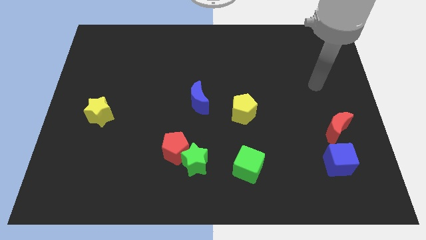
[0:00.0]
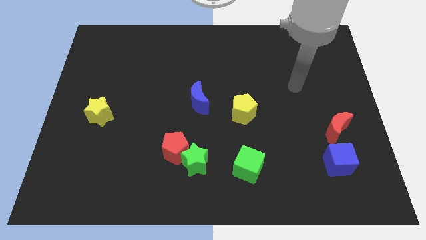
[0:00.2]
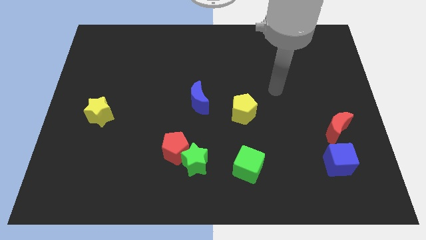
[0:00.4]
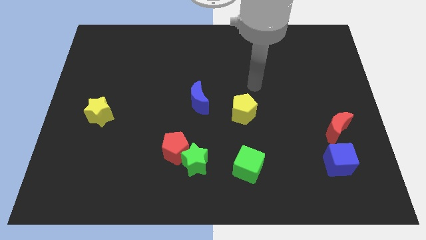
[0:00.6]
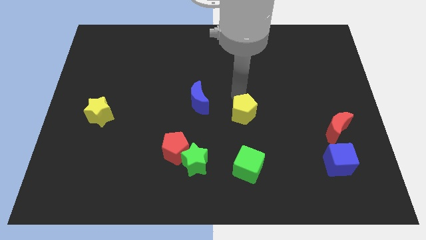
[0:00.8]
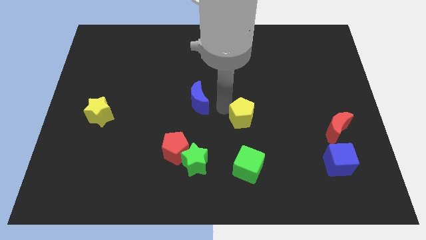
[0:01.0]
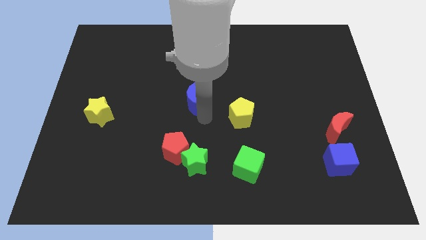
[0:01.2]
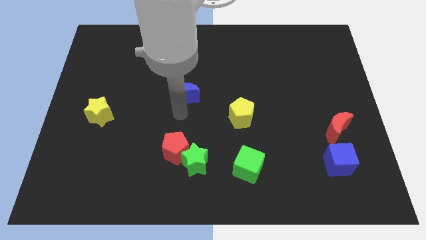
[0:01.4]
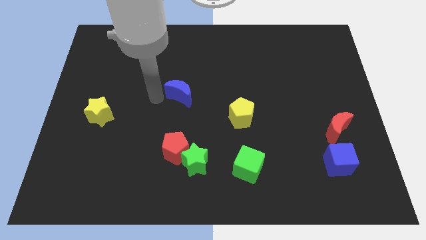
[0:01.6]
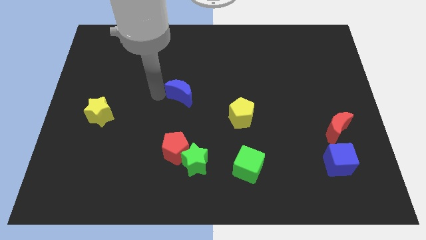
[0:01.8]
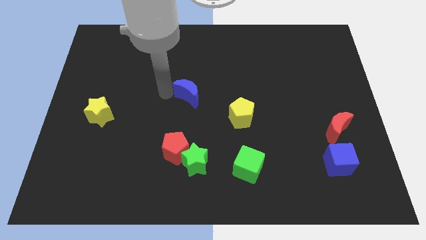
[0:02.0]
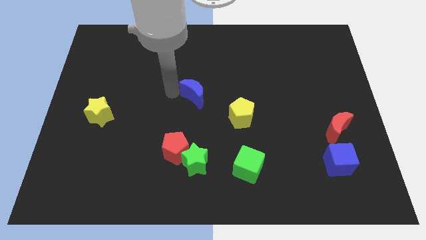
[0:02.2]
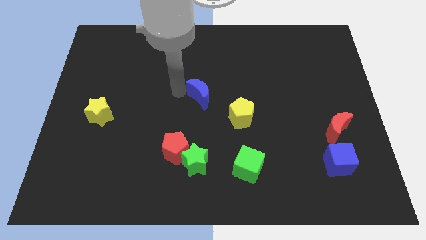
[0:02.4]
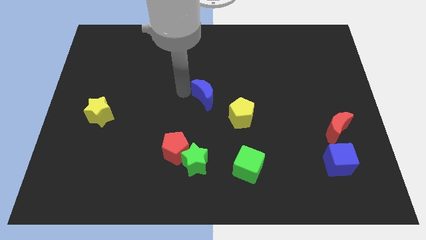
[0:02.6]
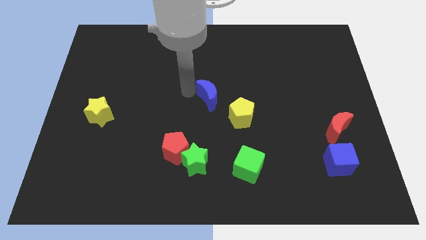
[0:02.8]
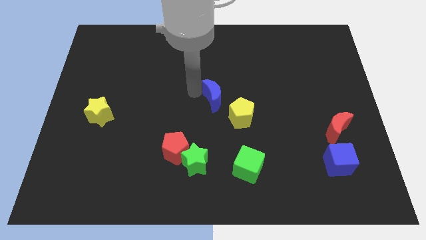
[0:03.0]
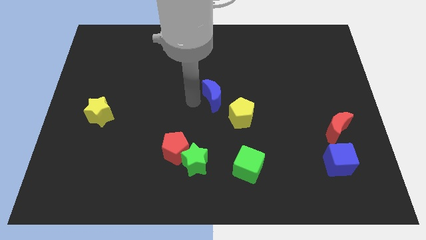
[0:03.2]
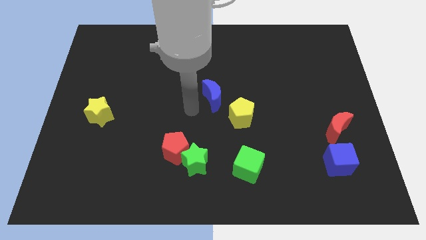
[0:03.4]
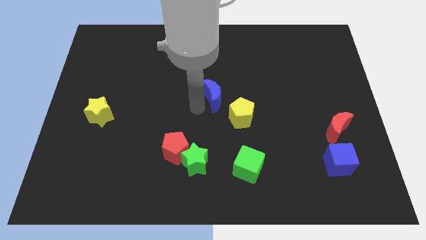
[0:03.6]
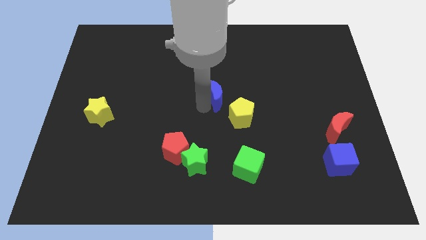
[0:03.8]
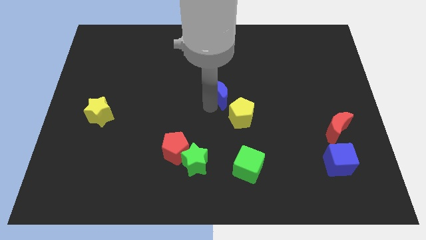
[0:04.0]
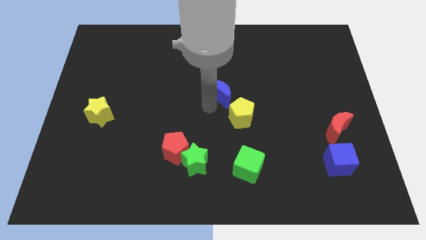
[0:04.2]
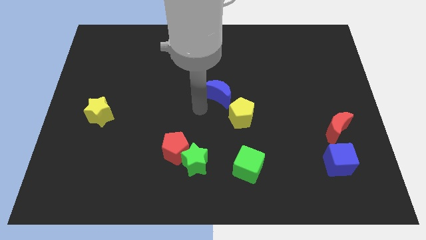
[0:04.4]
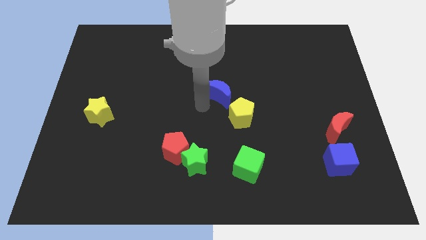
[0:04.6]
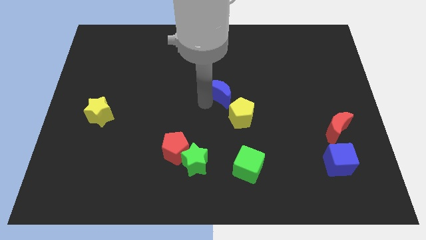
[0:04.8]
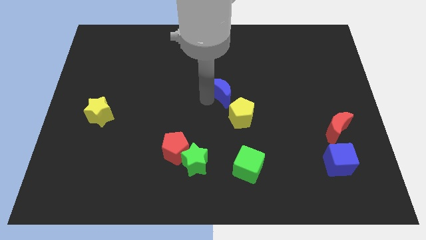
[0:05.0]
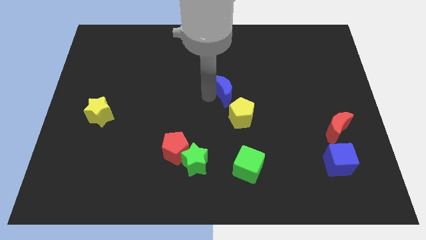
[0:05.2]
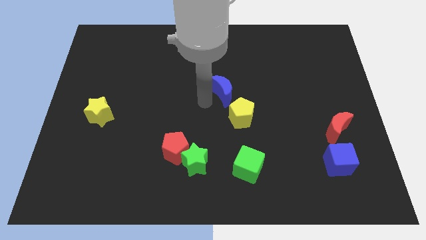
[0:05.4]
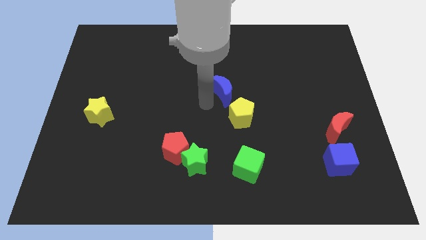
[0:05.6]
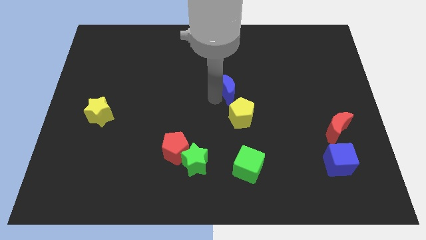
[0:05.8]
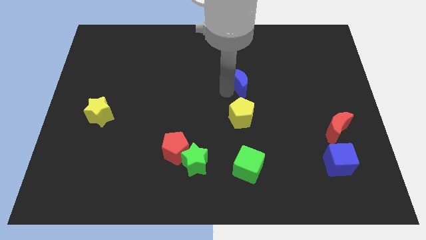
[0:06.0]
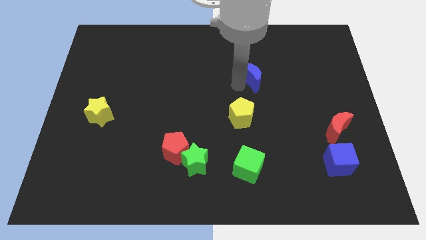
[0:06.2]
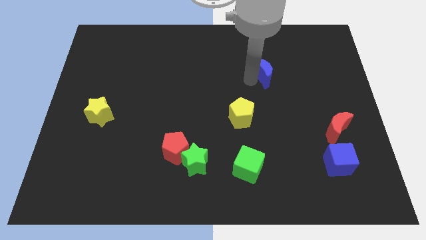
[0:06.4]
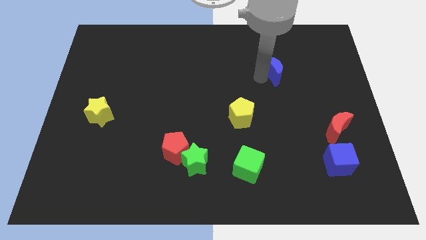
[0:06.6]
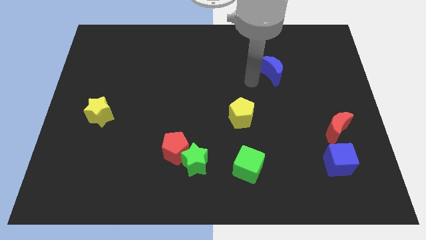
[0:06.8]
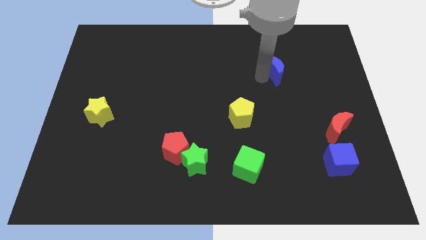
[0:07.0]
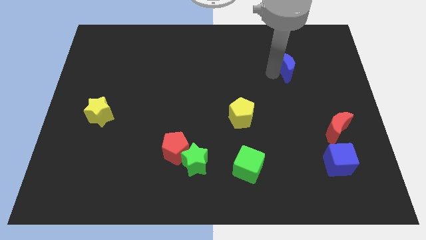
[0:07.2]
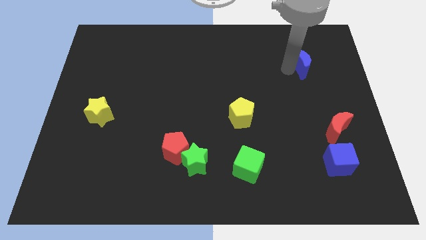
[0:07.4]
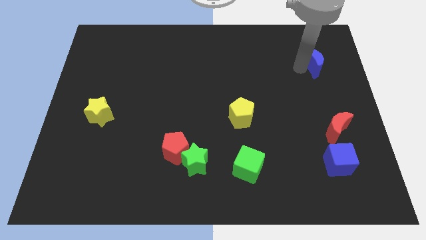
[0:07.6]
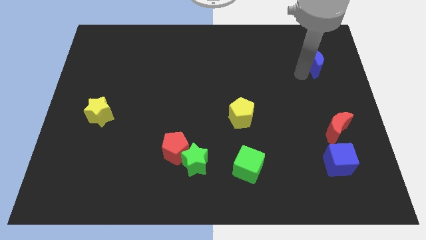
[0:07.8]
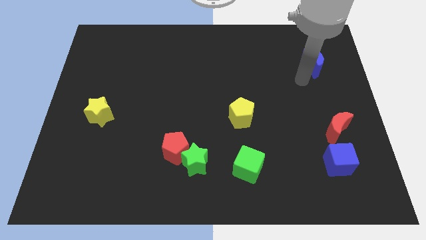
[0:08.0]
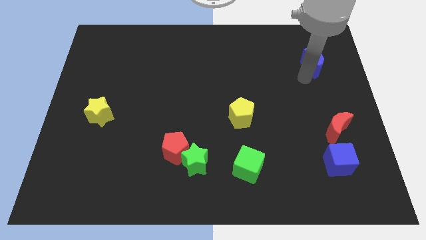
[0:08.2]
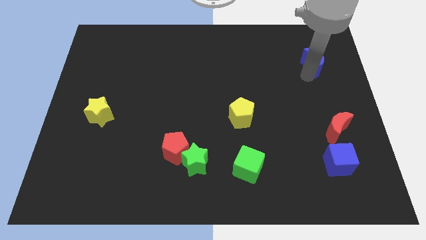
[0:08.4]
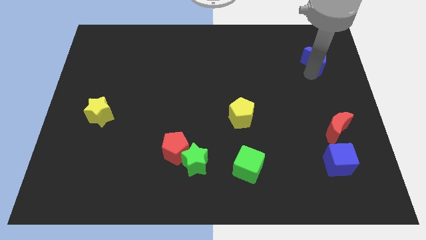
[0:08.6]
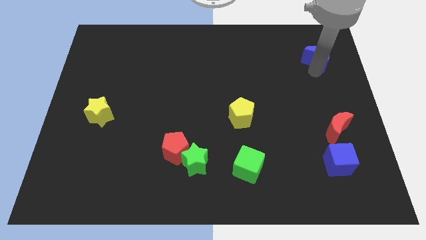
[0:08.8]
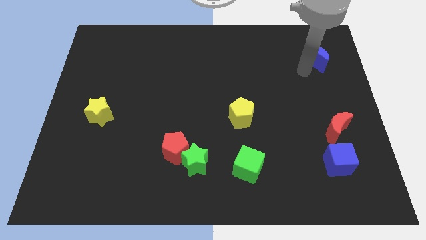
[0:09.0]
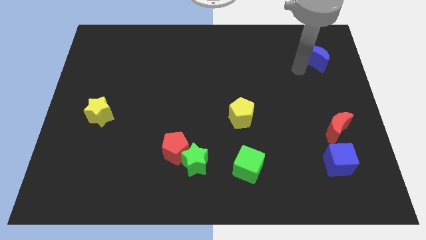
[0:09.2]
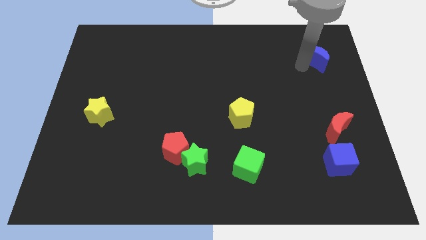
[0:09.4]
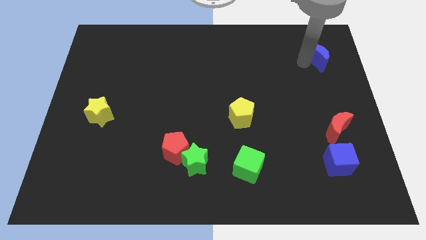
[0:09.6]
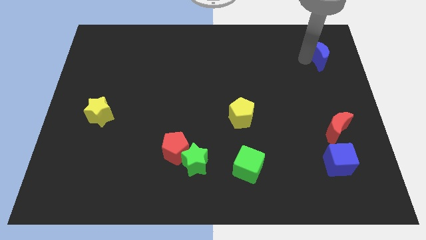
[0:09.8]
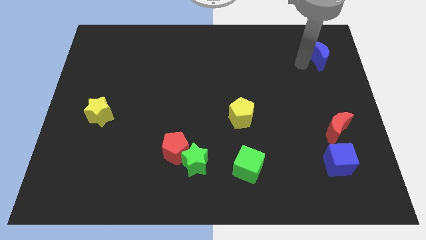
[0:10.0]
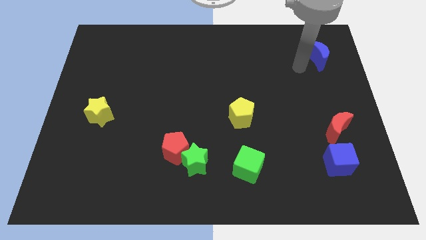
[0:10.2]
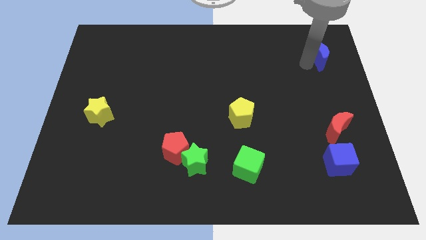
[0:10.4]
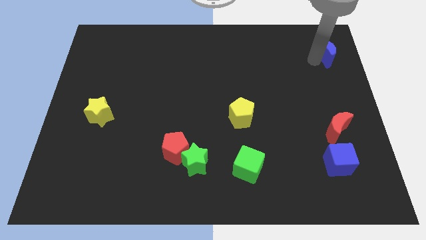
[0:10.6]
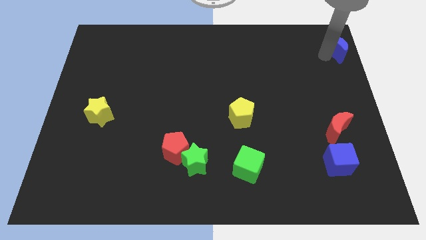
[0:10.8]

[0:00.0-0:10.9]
move the blue moon to the top right of the board

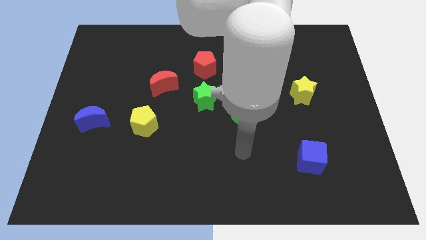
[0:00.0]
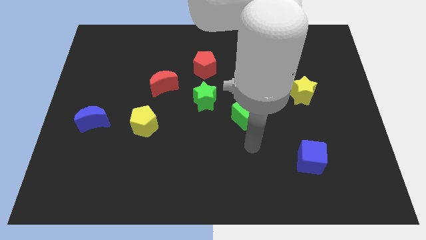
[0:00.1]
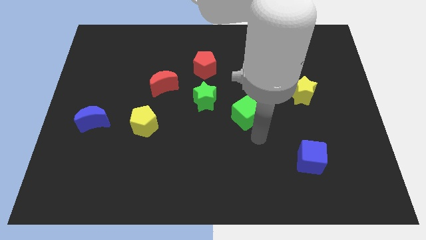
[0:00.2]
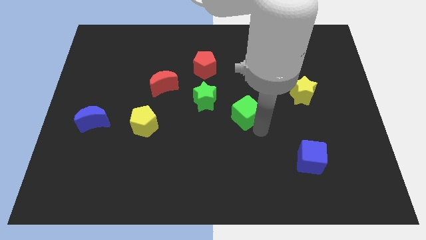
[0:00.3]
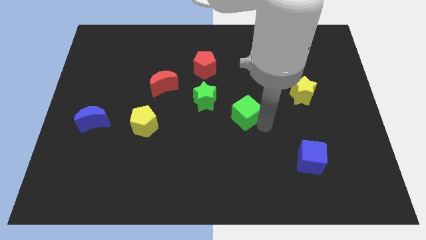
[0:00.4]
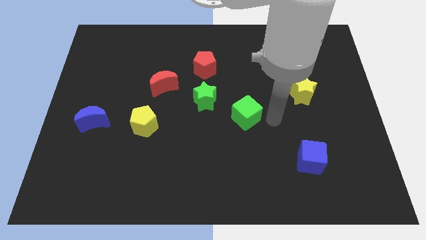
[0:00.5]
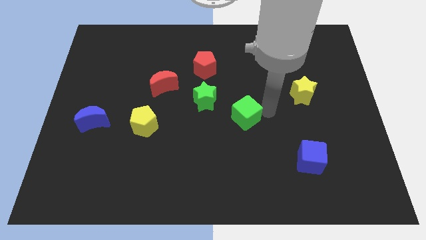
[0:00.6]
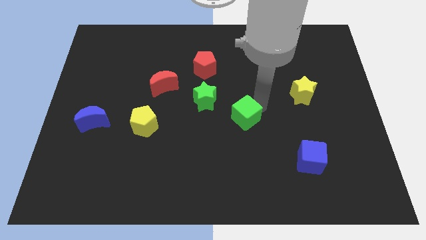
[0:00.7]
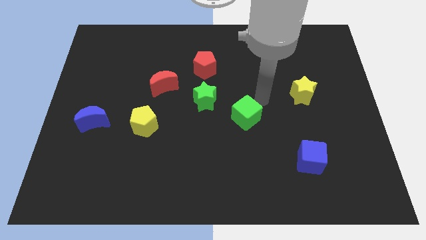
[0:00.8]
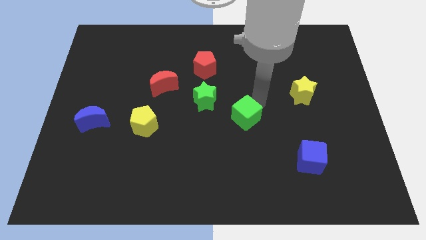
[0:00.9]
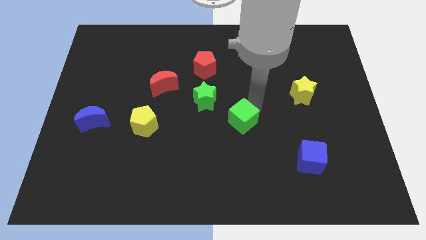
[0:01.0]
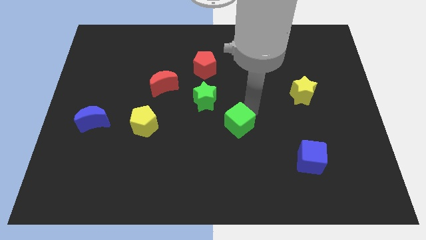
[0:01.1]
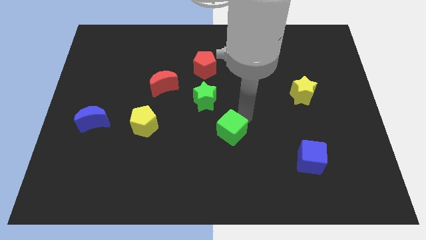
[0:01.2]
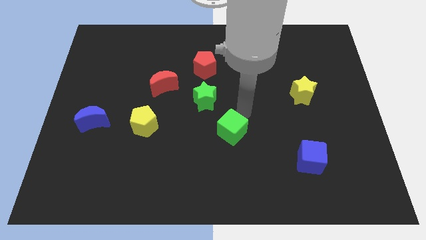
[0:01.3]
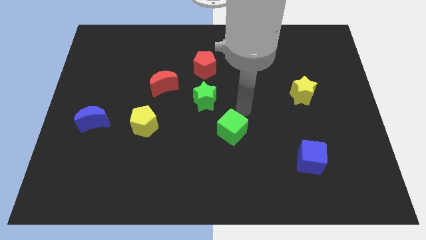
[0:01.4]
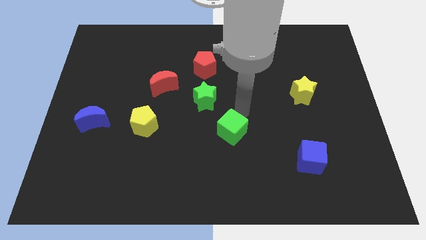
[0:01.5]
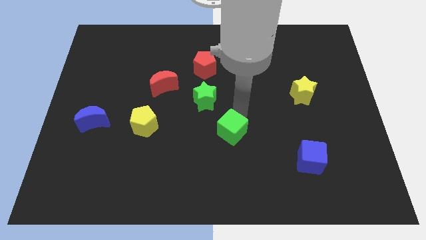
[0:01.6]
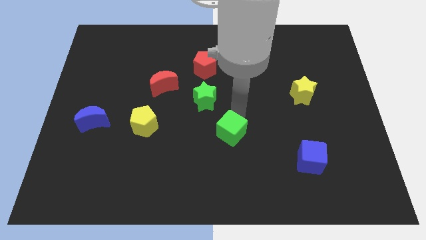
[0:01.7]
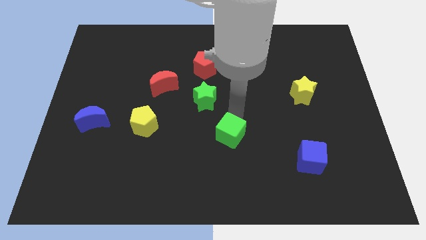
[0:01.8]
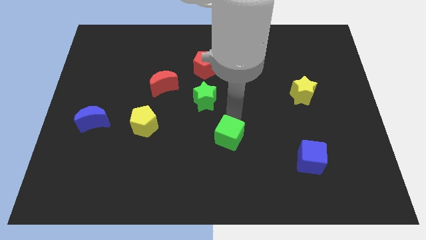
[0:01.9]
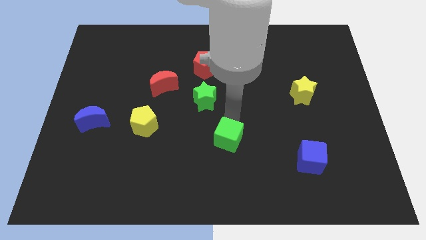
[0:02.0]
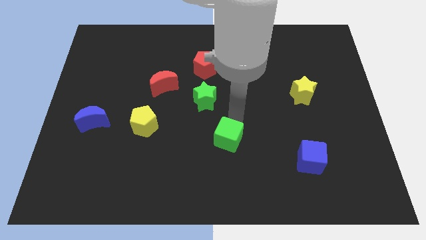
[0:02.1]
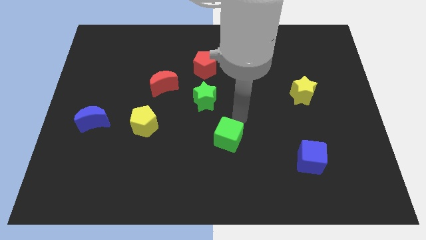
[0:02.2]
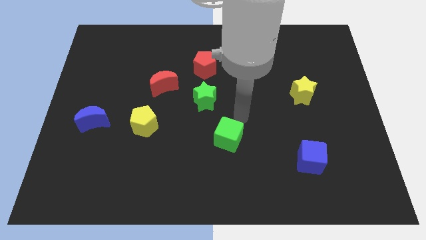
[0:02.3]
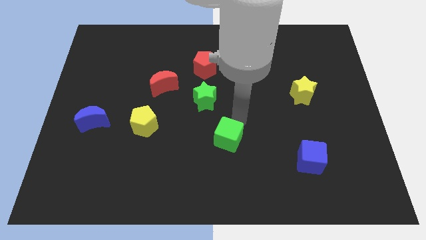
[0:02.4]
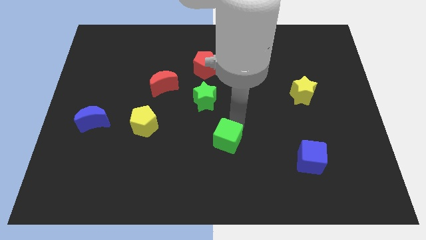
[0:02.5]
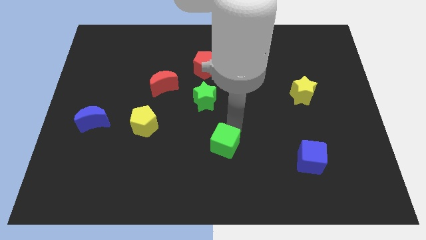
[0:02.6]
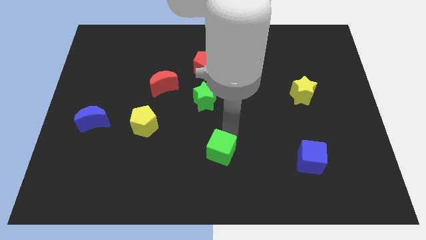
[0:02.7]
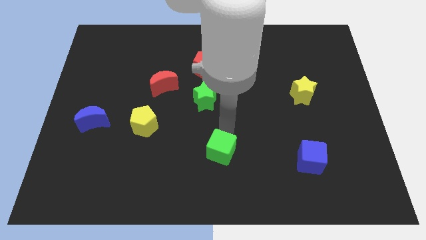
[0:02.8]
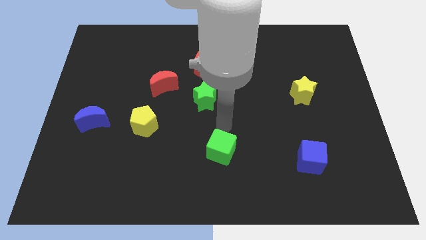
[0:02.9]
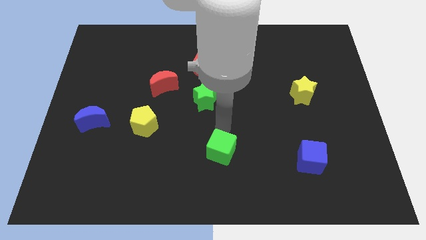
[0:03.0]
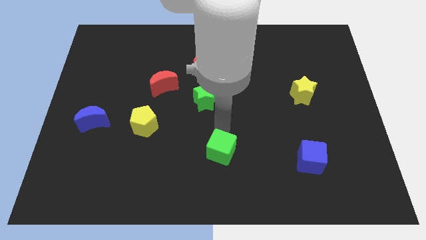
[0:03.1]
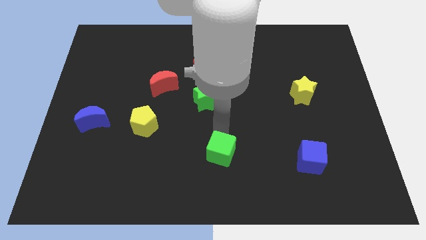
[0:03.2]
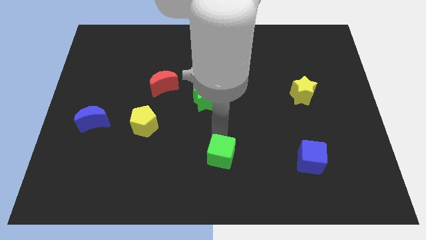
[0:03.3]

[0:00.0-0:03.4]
move the green cube to the bottom side
